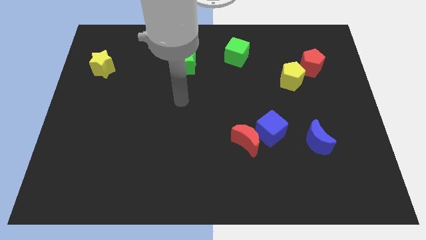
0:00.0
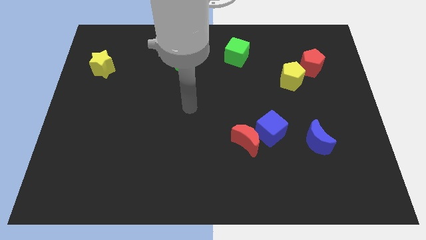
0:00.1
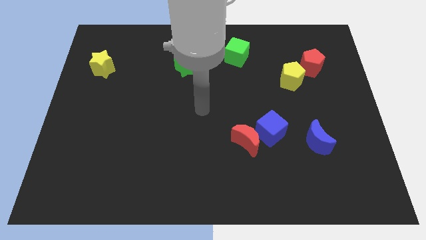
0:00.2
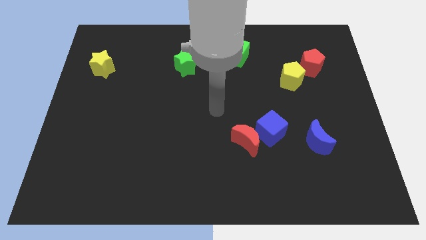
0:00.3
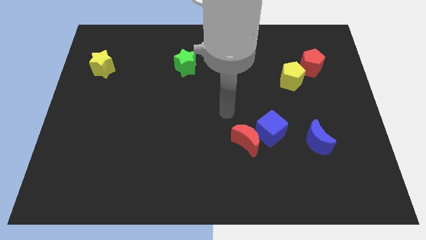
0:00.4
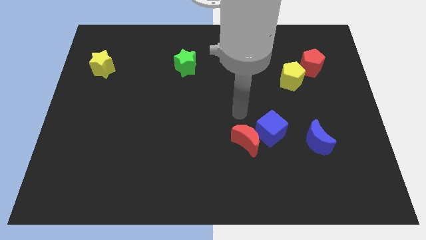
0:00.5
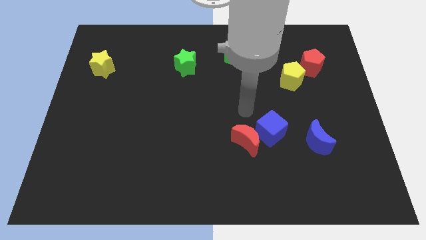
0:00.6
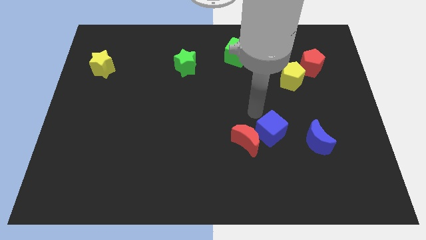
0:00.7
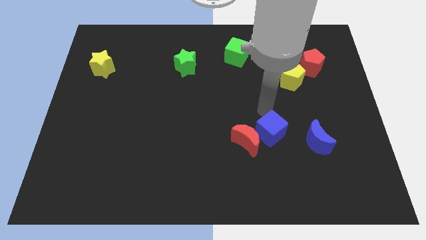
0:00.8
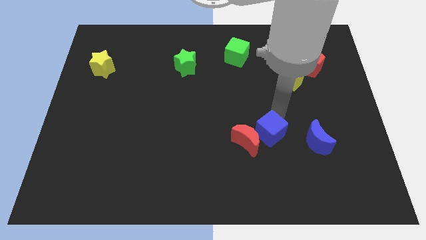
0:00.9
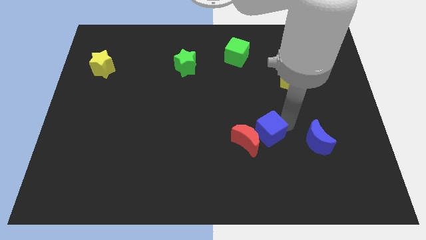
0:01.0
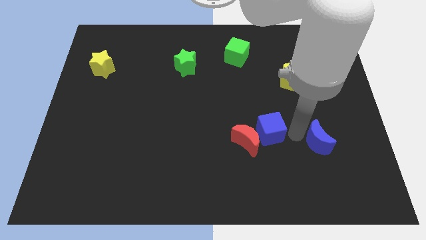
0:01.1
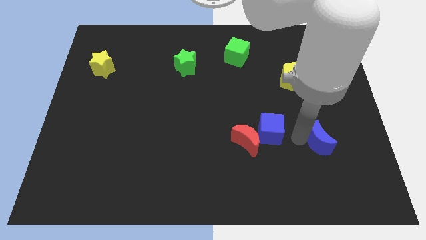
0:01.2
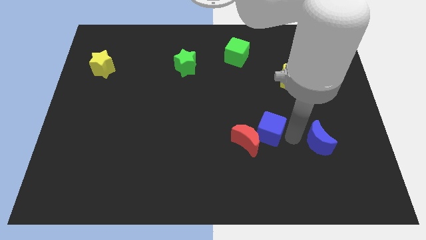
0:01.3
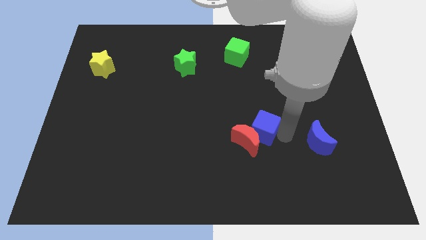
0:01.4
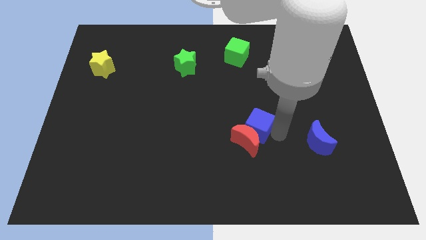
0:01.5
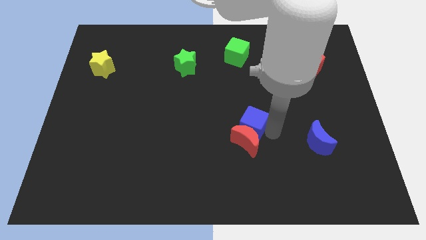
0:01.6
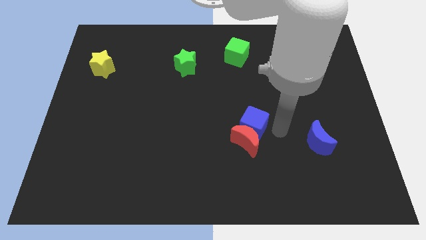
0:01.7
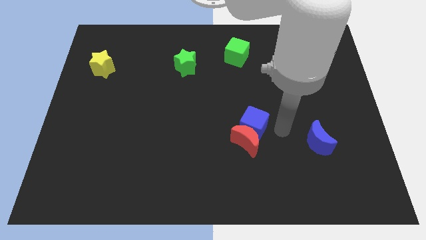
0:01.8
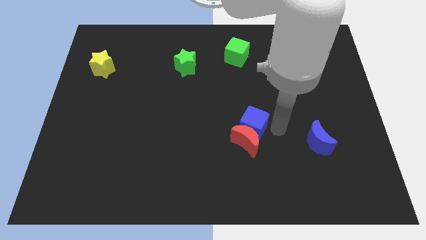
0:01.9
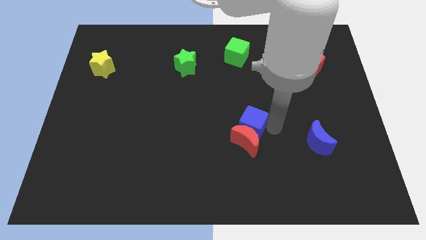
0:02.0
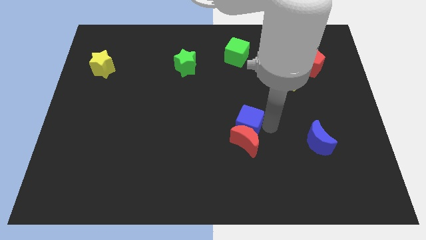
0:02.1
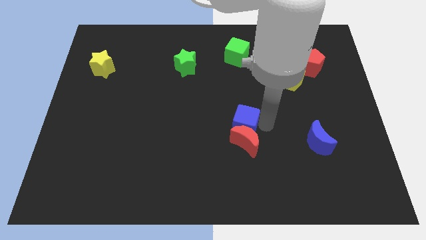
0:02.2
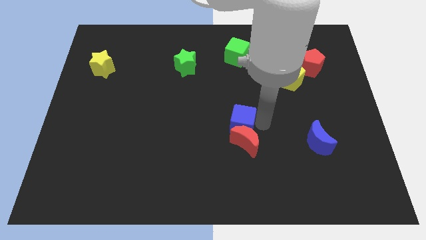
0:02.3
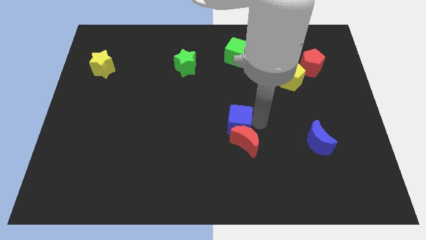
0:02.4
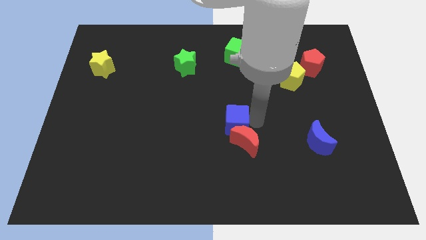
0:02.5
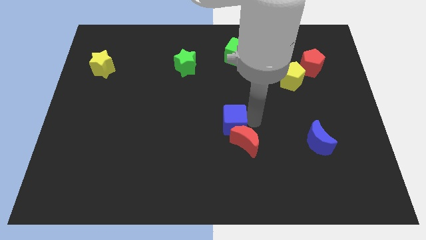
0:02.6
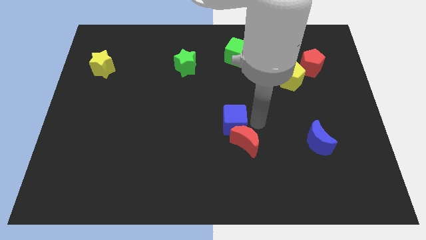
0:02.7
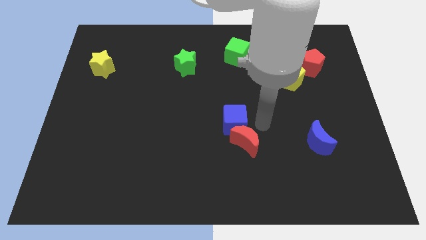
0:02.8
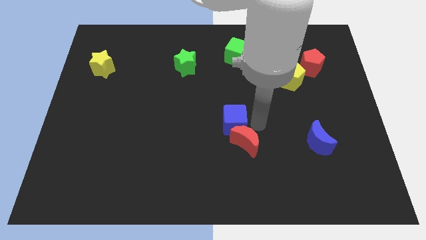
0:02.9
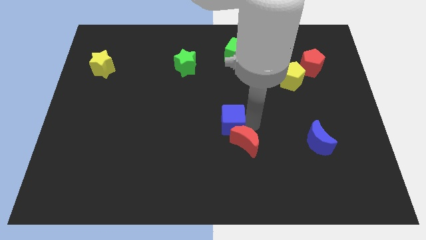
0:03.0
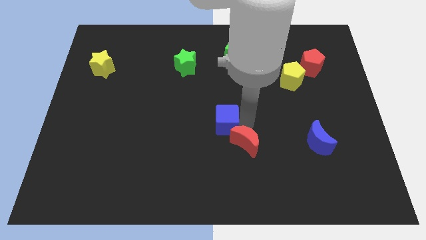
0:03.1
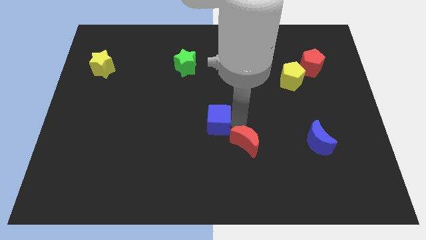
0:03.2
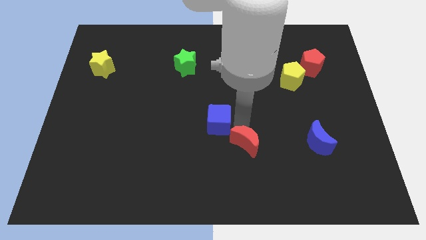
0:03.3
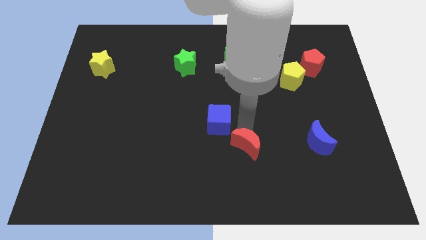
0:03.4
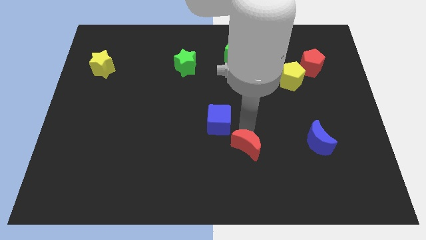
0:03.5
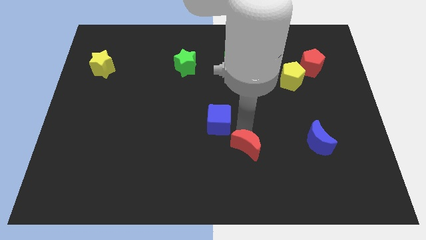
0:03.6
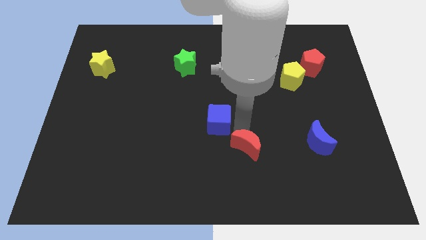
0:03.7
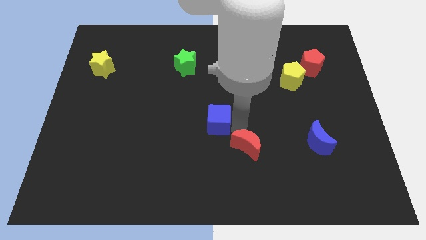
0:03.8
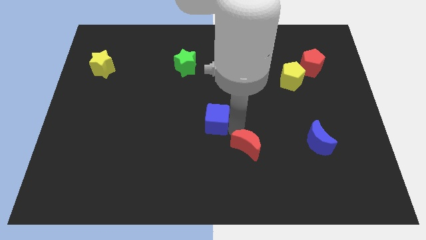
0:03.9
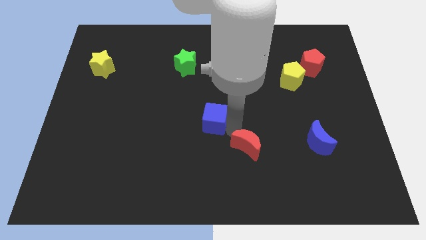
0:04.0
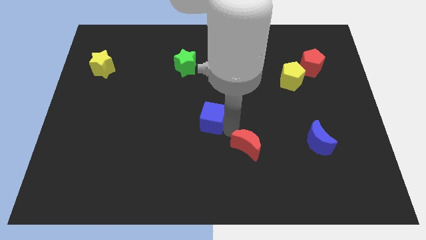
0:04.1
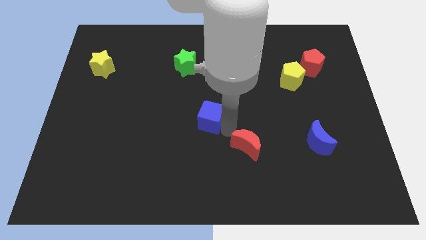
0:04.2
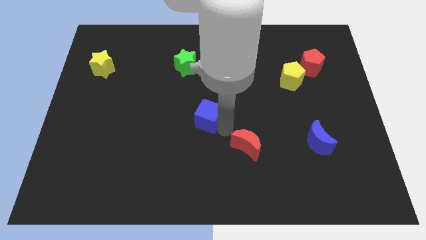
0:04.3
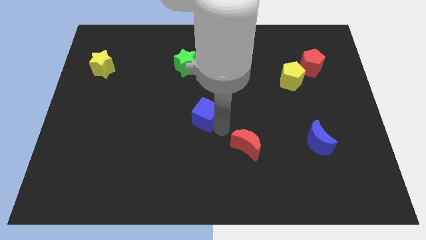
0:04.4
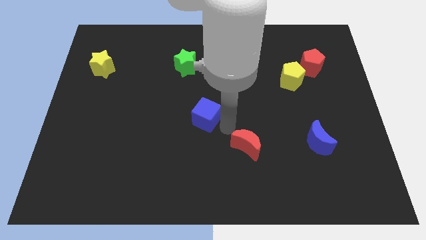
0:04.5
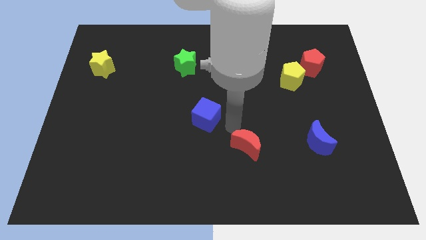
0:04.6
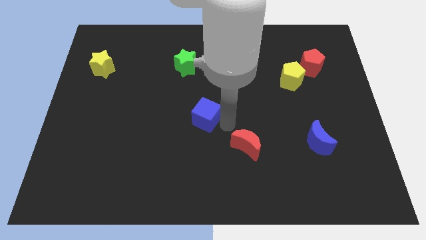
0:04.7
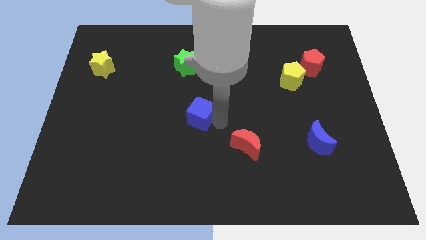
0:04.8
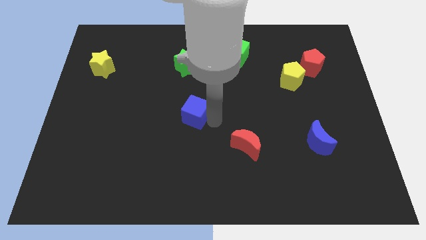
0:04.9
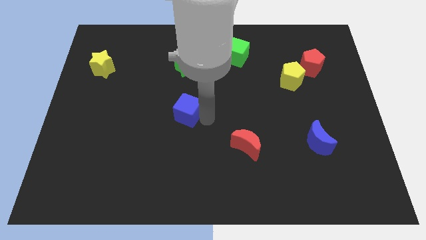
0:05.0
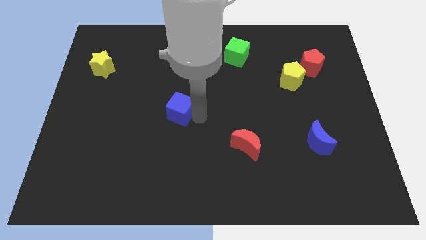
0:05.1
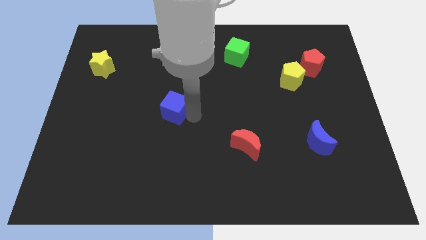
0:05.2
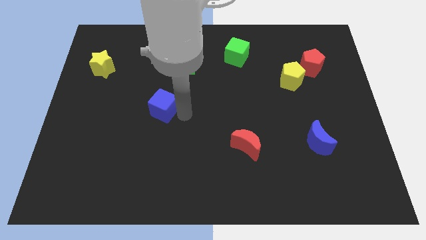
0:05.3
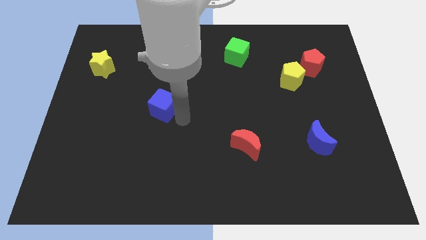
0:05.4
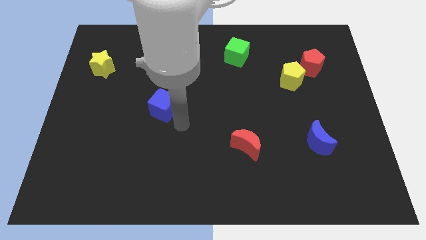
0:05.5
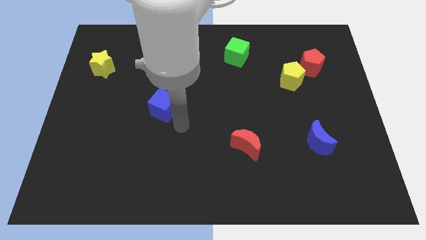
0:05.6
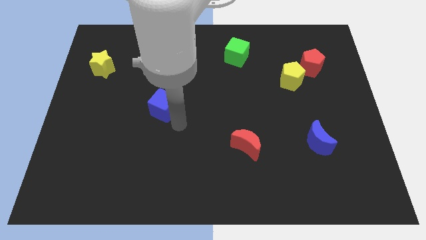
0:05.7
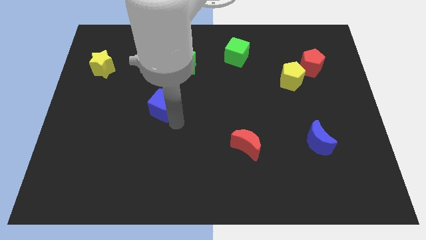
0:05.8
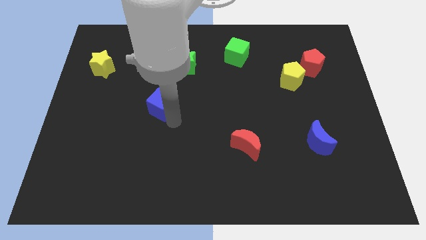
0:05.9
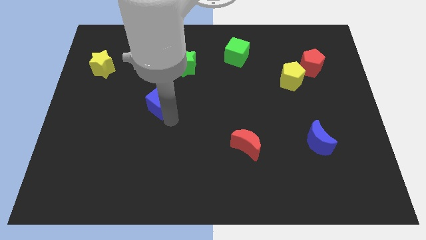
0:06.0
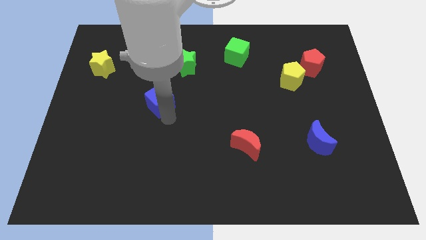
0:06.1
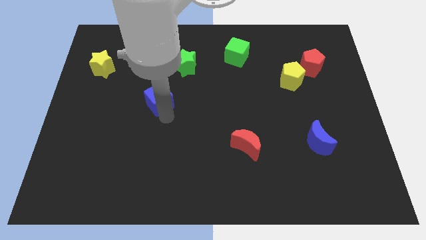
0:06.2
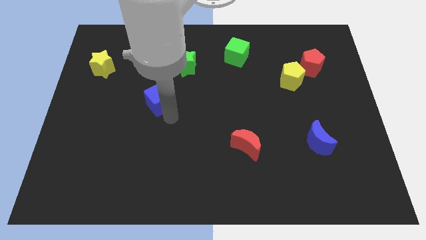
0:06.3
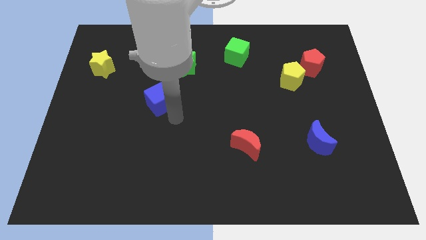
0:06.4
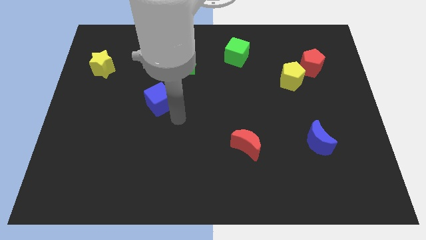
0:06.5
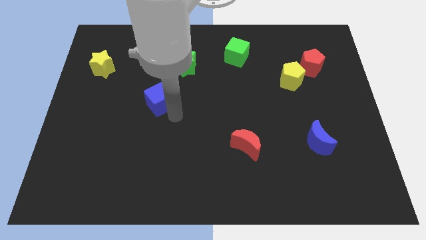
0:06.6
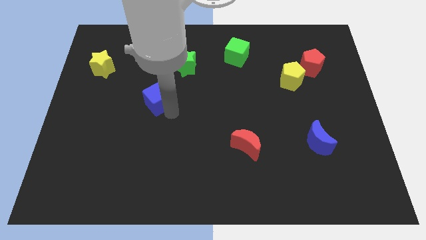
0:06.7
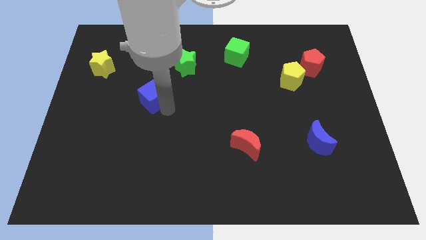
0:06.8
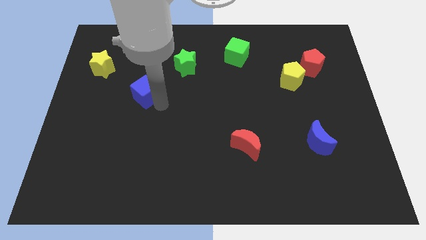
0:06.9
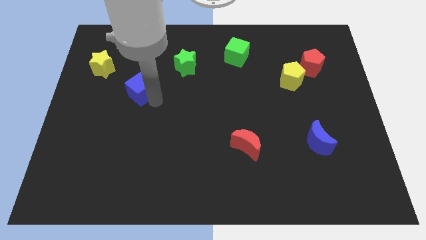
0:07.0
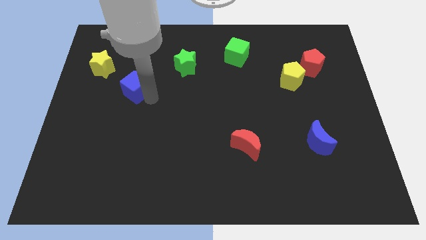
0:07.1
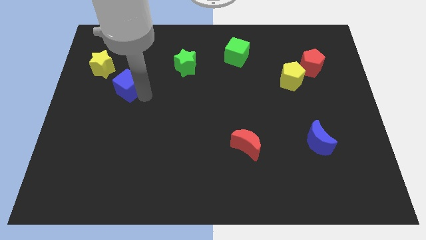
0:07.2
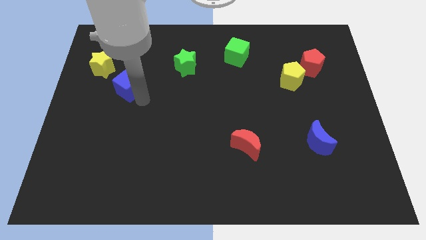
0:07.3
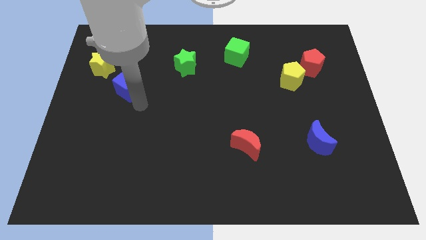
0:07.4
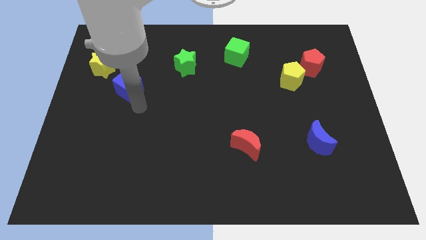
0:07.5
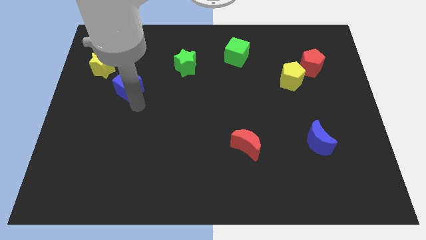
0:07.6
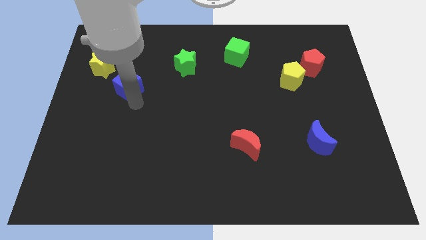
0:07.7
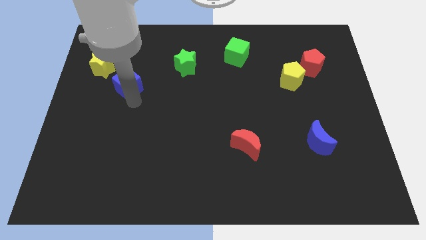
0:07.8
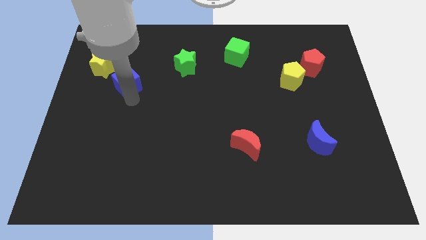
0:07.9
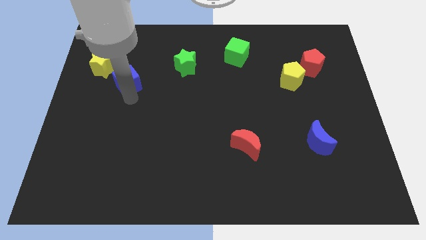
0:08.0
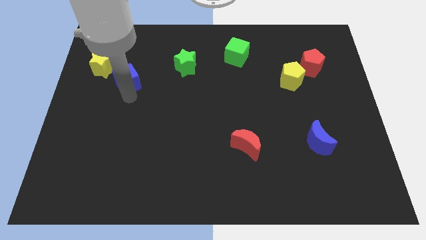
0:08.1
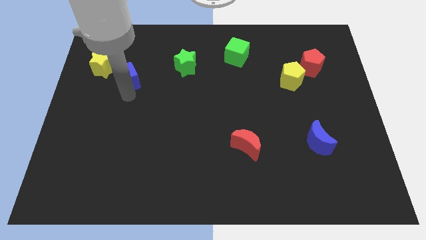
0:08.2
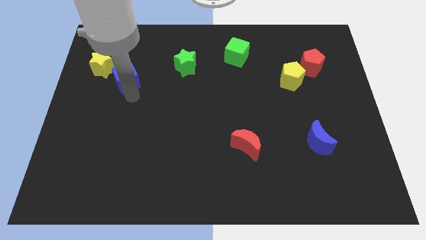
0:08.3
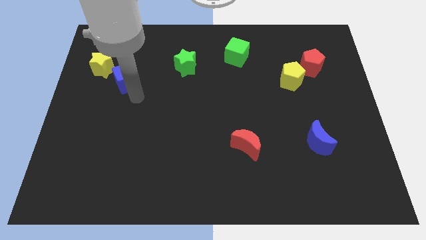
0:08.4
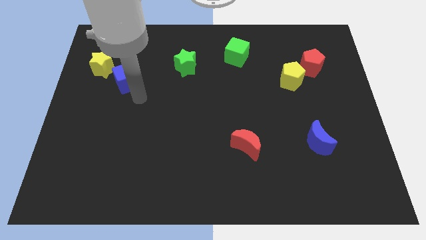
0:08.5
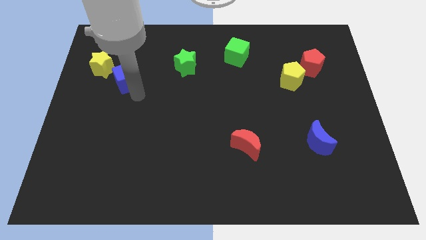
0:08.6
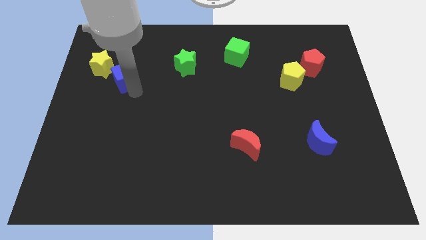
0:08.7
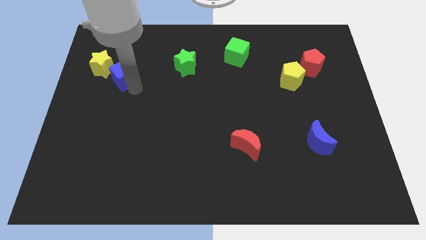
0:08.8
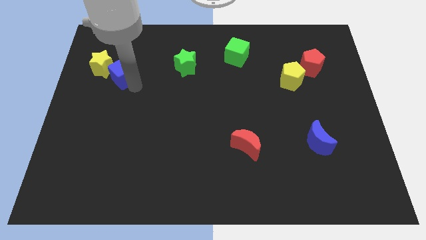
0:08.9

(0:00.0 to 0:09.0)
put the blue cube close to the yellow star
